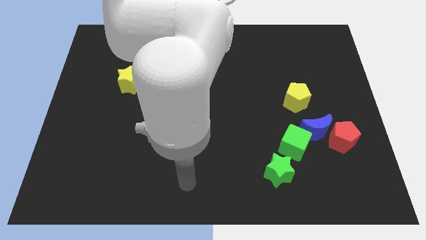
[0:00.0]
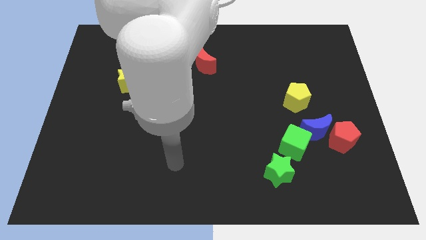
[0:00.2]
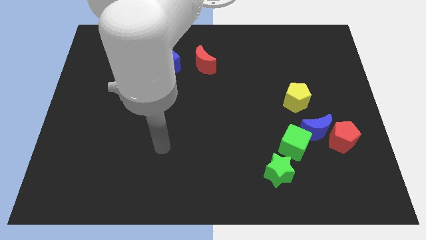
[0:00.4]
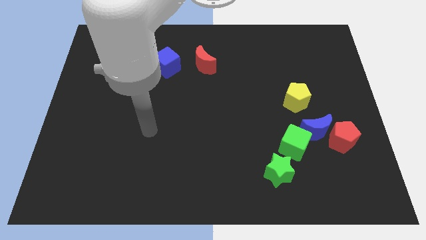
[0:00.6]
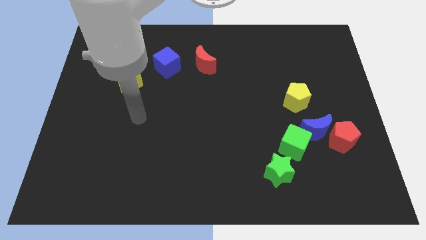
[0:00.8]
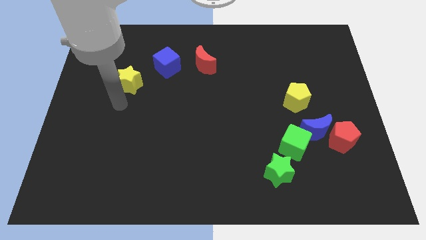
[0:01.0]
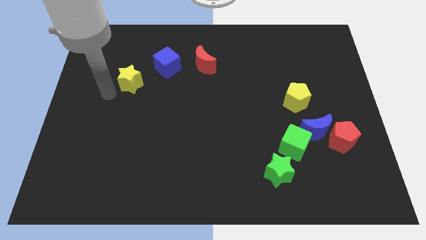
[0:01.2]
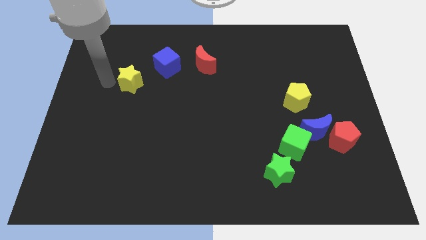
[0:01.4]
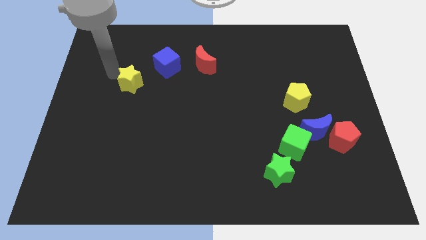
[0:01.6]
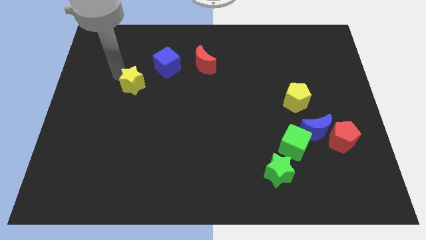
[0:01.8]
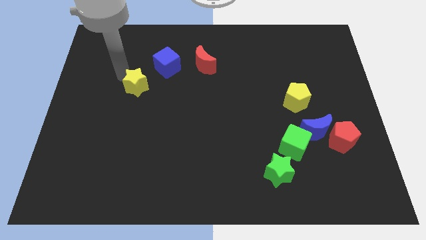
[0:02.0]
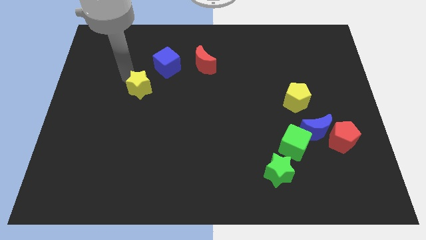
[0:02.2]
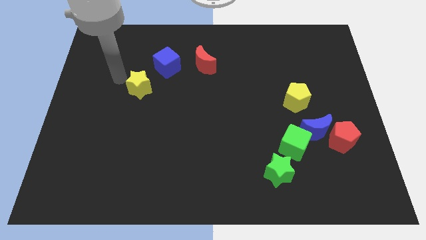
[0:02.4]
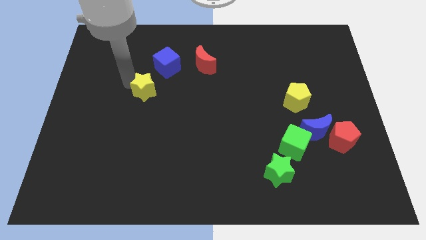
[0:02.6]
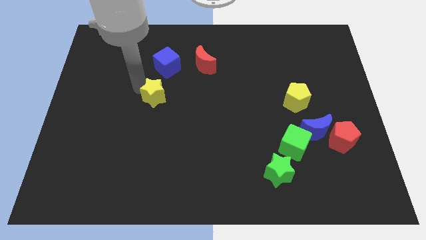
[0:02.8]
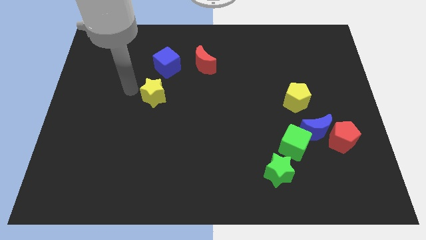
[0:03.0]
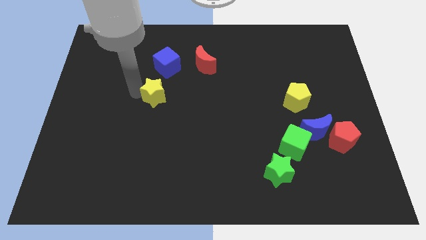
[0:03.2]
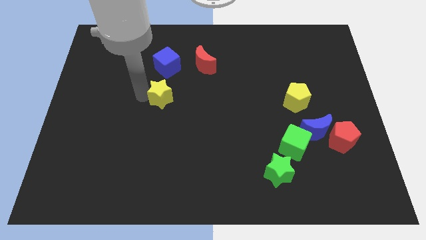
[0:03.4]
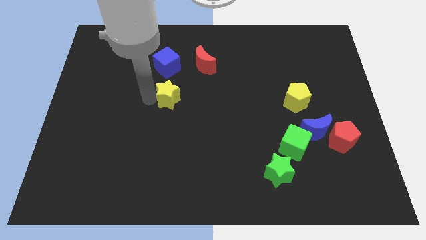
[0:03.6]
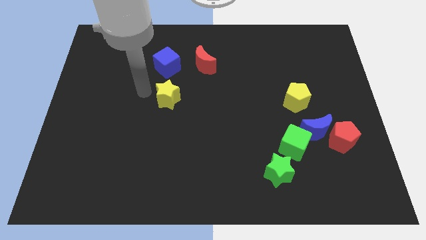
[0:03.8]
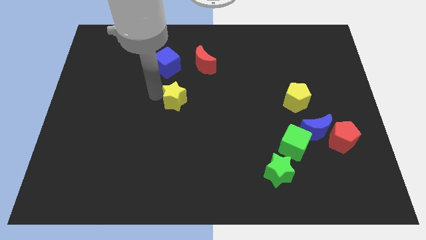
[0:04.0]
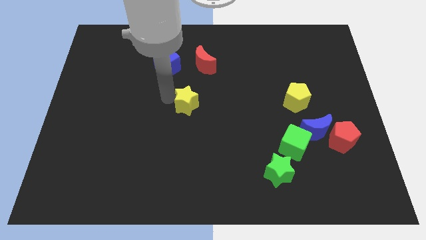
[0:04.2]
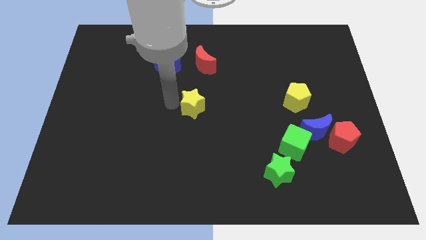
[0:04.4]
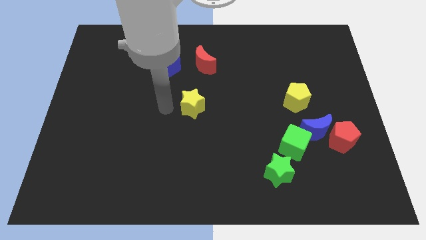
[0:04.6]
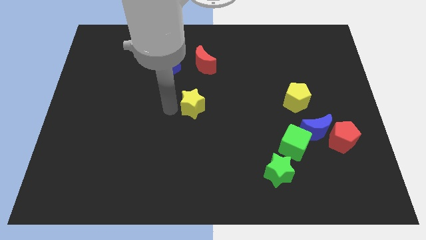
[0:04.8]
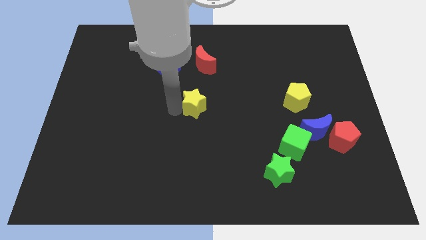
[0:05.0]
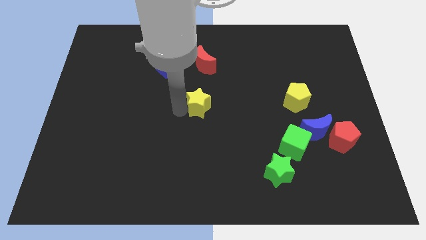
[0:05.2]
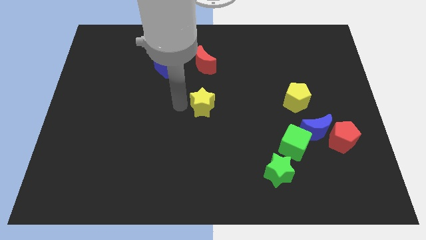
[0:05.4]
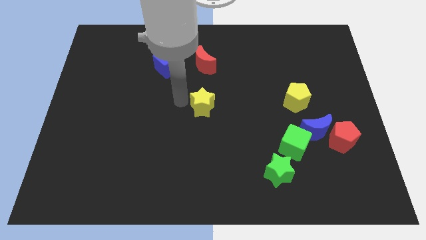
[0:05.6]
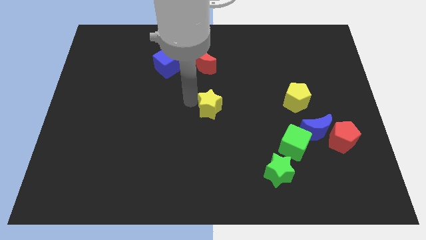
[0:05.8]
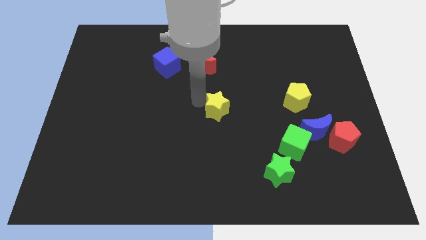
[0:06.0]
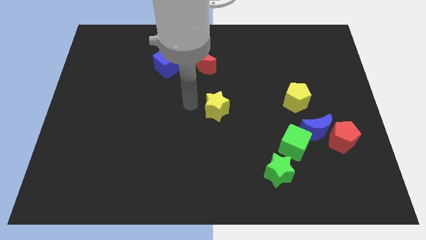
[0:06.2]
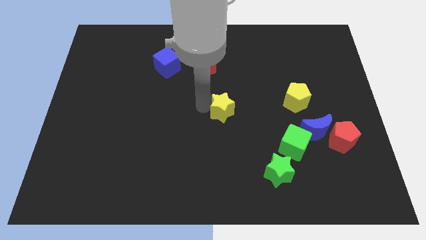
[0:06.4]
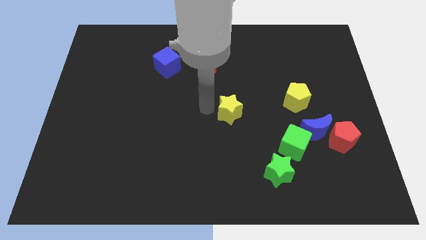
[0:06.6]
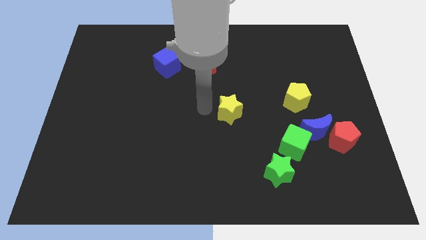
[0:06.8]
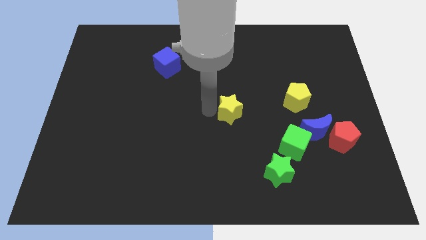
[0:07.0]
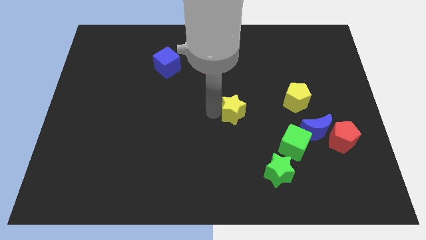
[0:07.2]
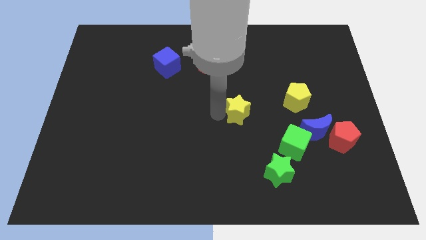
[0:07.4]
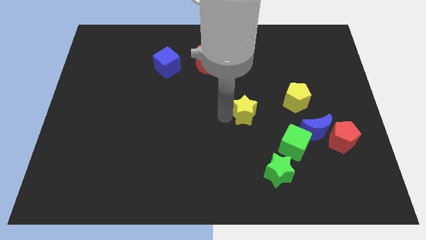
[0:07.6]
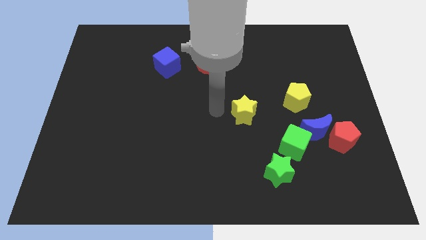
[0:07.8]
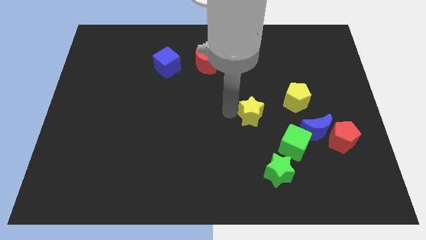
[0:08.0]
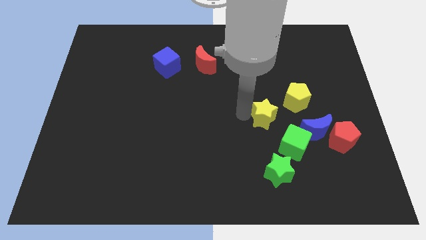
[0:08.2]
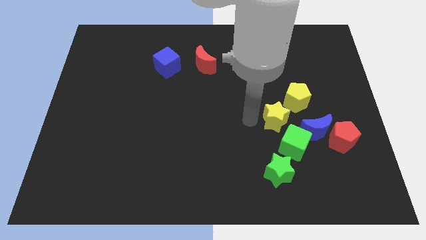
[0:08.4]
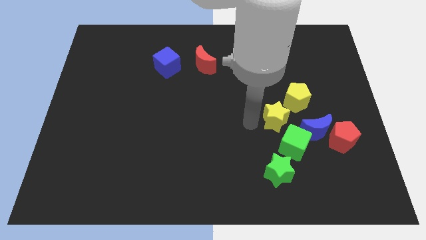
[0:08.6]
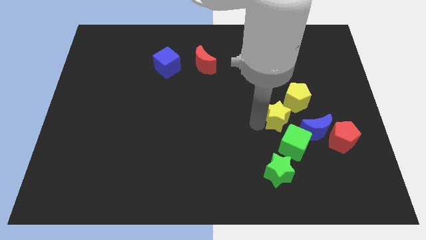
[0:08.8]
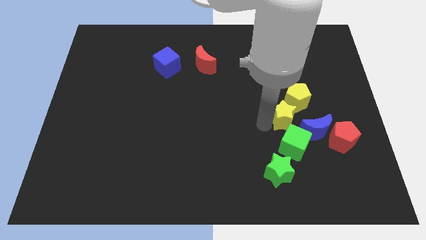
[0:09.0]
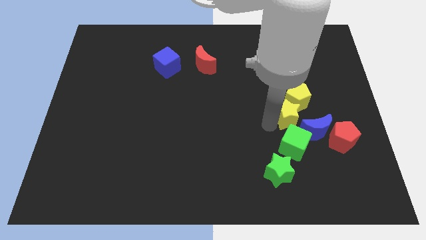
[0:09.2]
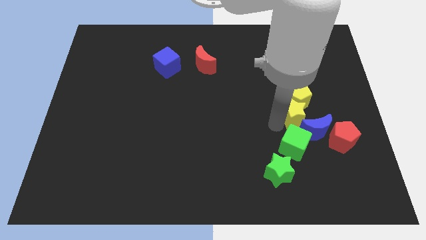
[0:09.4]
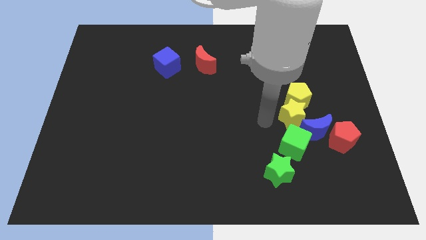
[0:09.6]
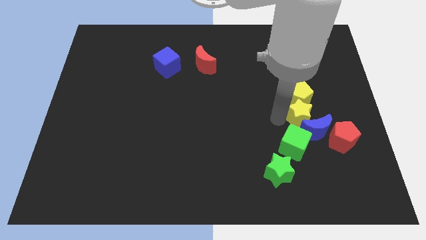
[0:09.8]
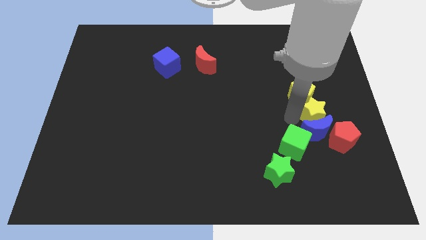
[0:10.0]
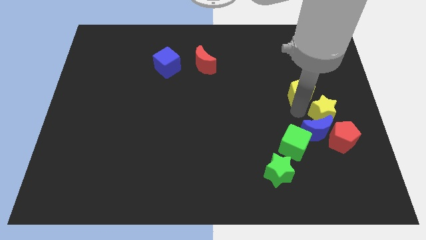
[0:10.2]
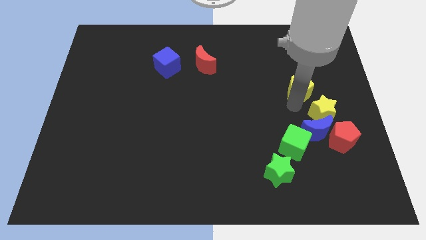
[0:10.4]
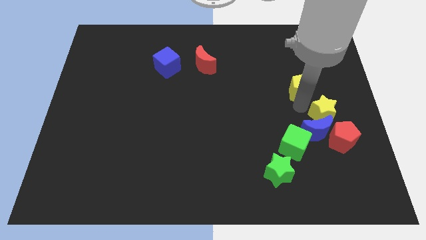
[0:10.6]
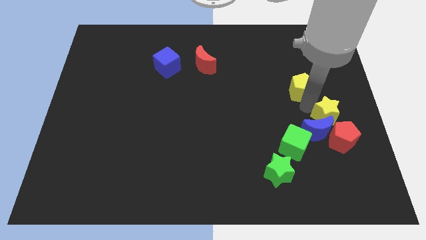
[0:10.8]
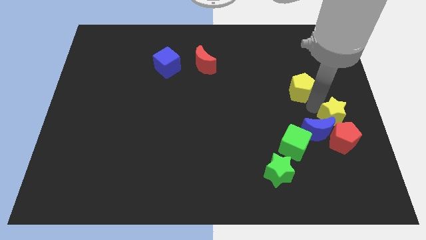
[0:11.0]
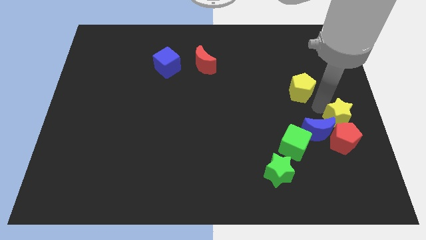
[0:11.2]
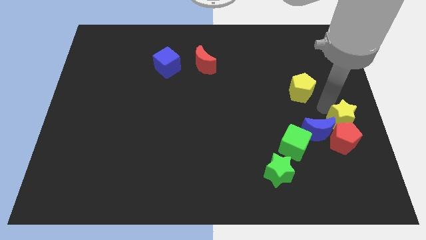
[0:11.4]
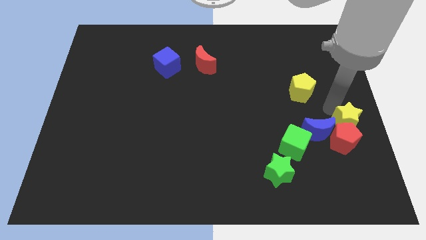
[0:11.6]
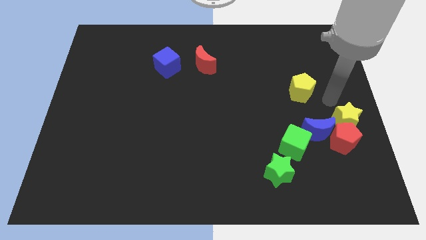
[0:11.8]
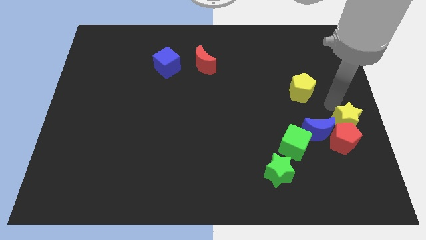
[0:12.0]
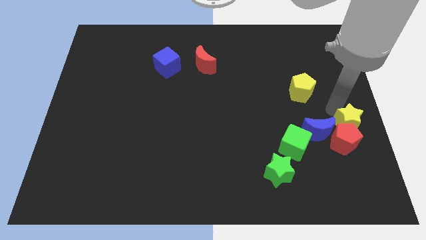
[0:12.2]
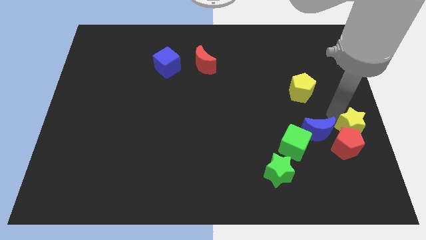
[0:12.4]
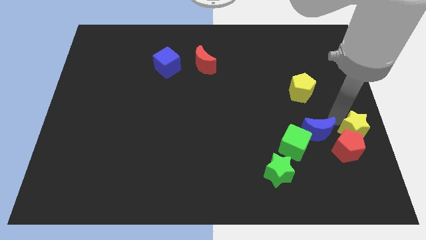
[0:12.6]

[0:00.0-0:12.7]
push the yellow star to the right side of the green cube

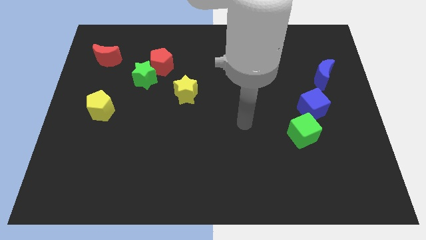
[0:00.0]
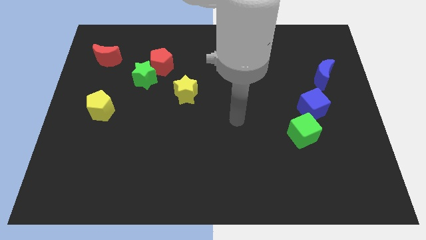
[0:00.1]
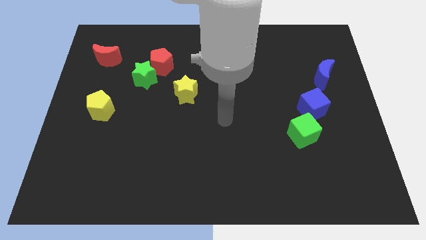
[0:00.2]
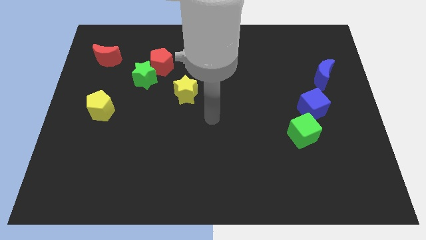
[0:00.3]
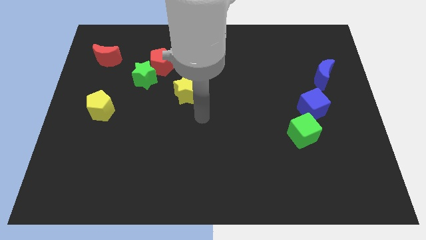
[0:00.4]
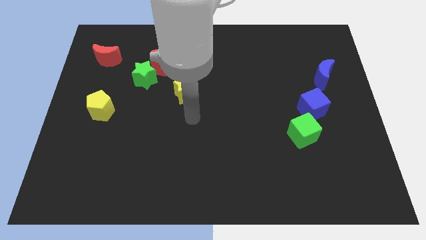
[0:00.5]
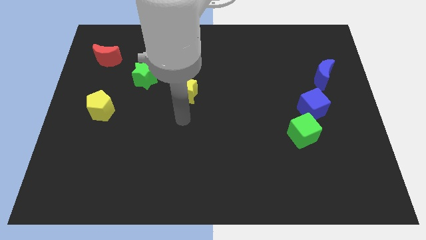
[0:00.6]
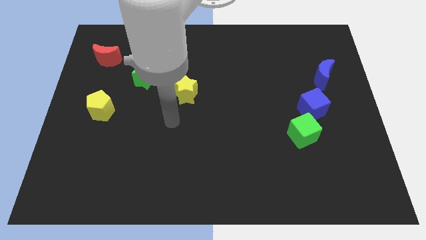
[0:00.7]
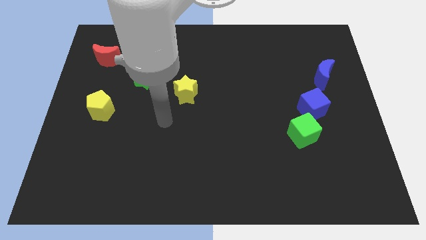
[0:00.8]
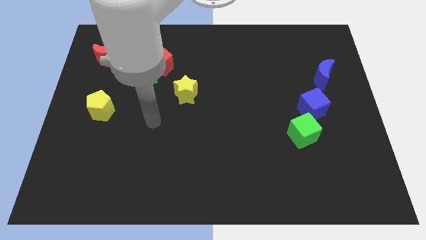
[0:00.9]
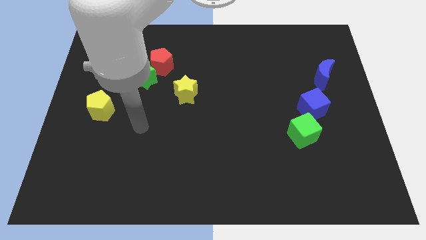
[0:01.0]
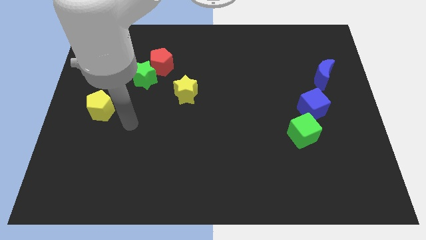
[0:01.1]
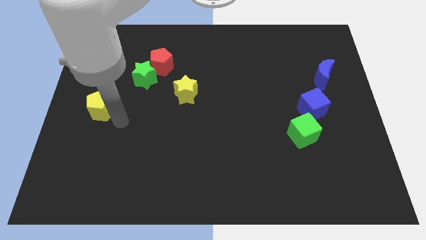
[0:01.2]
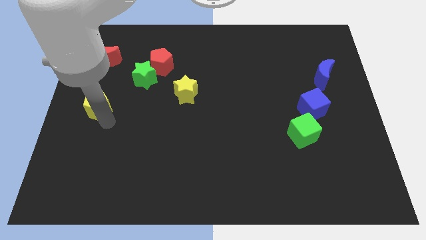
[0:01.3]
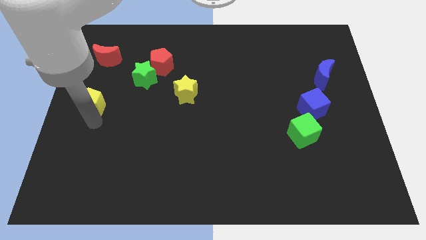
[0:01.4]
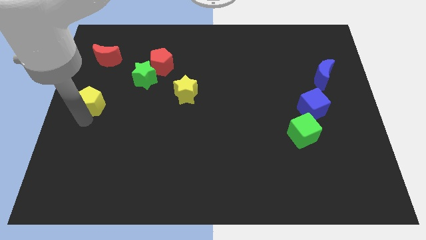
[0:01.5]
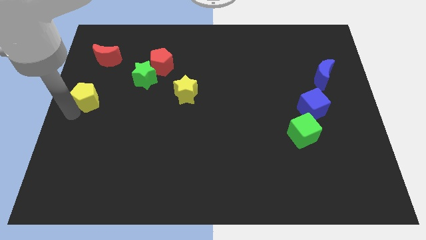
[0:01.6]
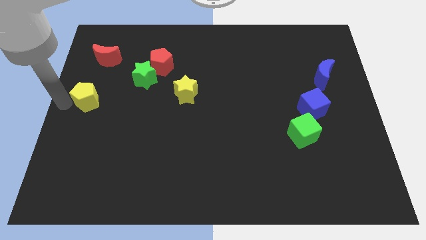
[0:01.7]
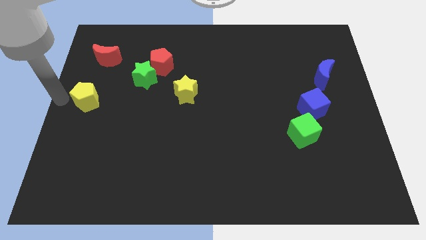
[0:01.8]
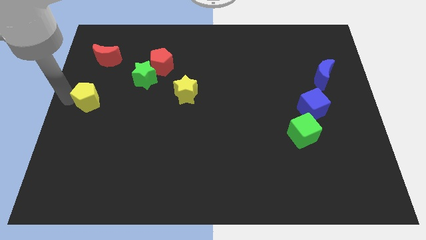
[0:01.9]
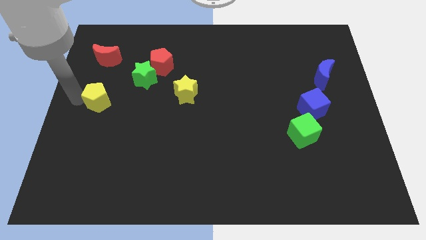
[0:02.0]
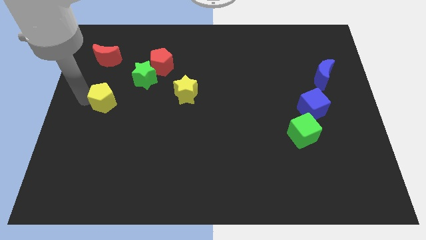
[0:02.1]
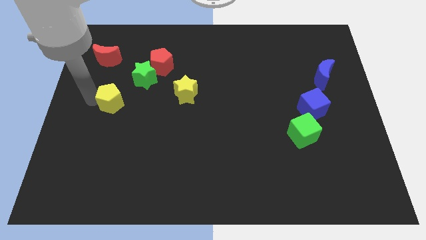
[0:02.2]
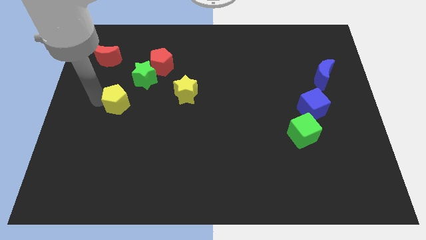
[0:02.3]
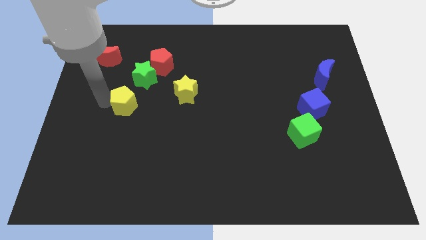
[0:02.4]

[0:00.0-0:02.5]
push the yellow pentagon to the left of the yellow star
